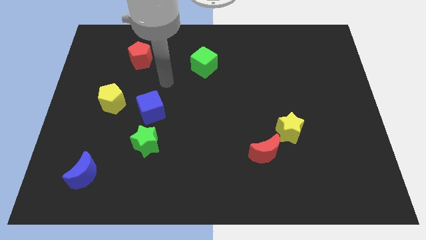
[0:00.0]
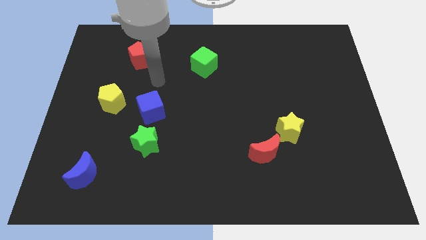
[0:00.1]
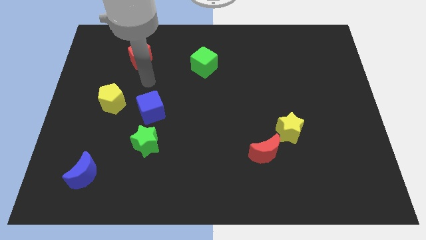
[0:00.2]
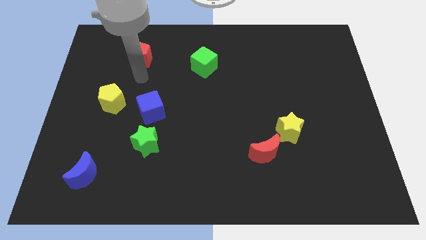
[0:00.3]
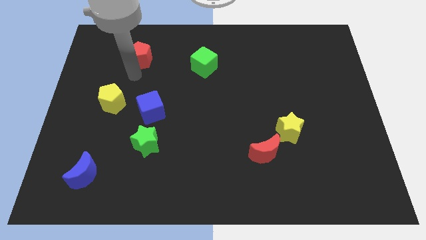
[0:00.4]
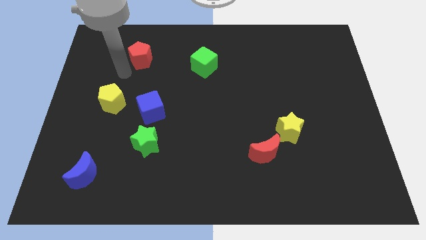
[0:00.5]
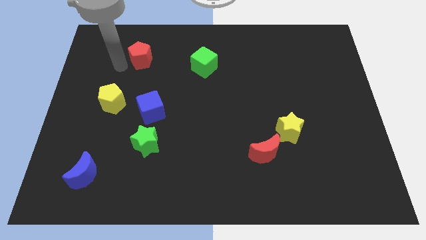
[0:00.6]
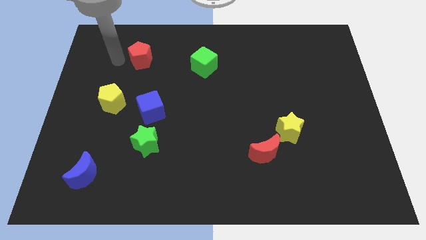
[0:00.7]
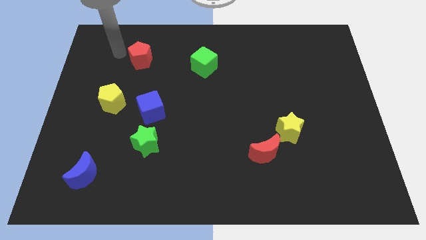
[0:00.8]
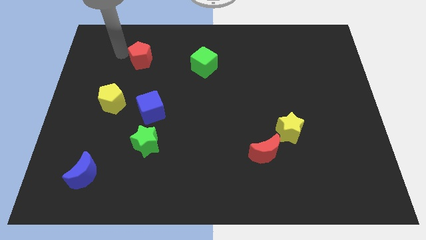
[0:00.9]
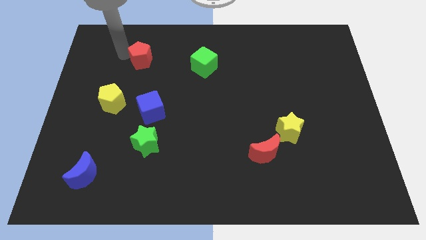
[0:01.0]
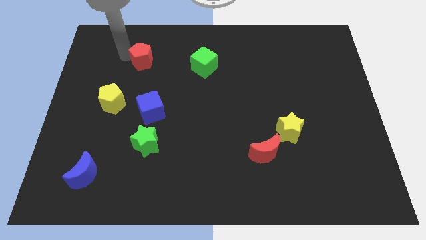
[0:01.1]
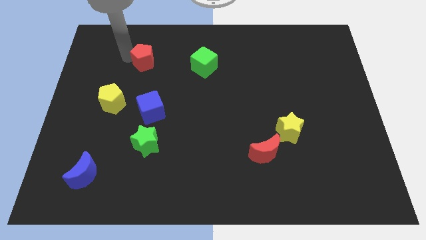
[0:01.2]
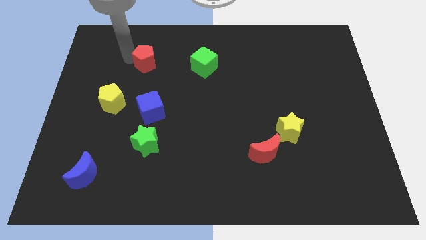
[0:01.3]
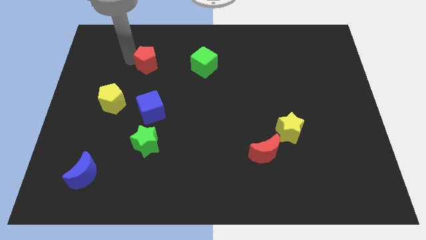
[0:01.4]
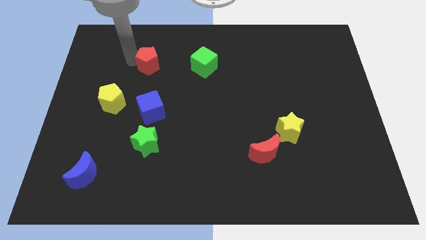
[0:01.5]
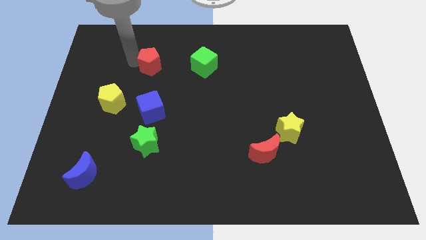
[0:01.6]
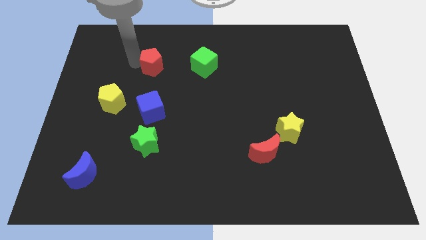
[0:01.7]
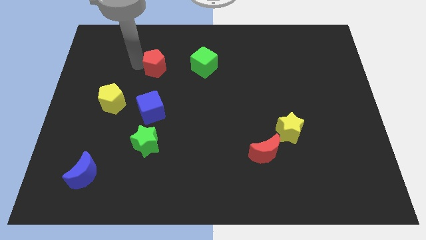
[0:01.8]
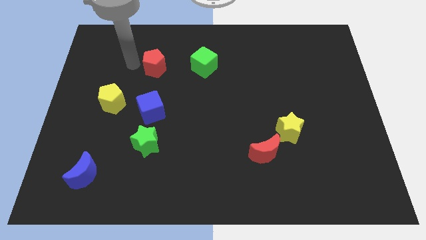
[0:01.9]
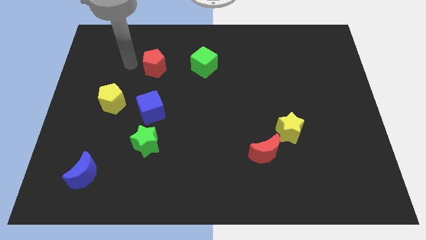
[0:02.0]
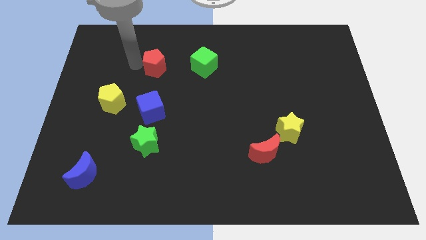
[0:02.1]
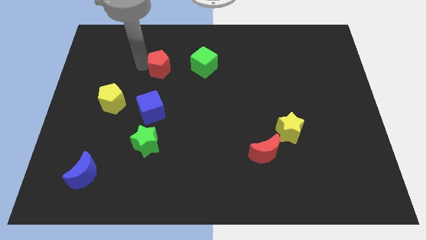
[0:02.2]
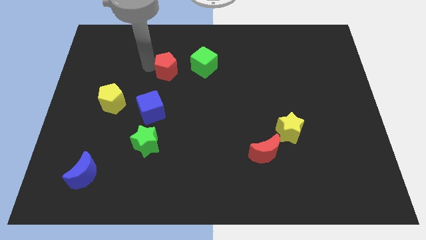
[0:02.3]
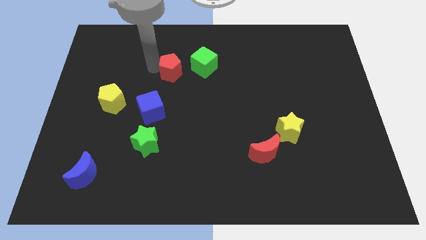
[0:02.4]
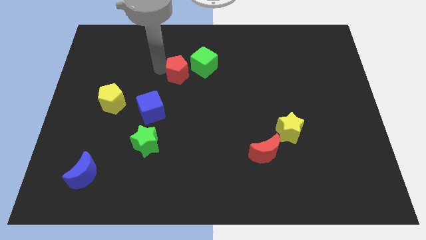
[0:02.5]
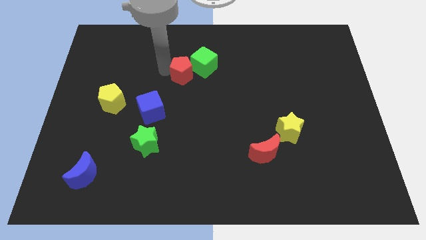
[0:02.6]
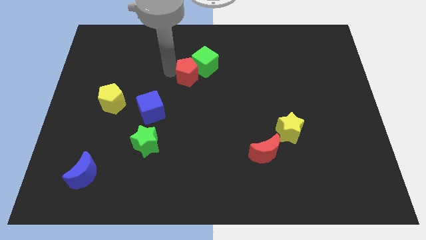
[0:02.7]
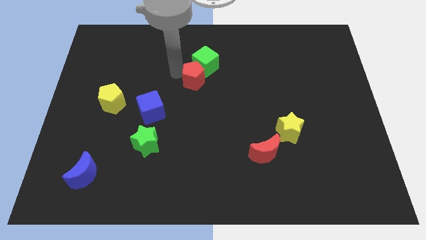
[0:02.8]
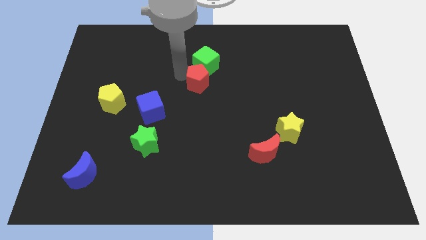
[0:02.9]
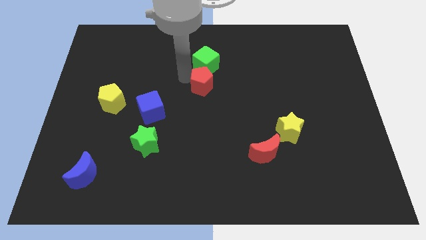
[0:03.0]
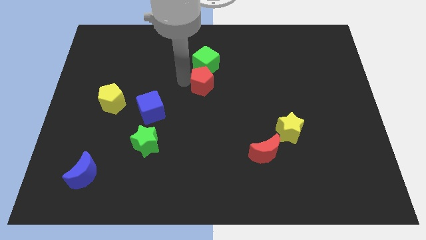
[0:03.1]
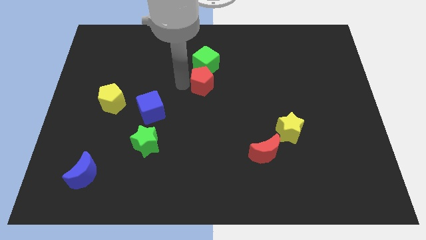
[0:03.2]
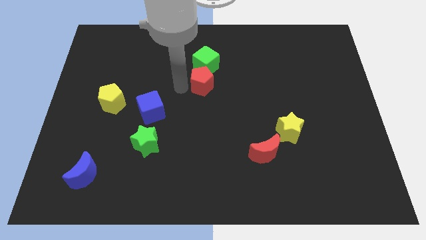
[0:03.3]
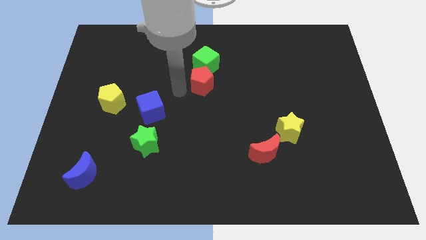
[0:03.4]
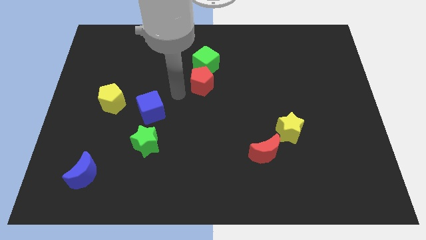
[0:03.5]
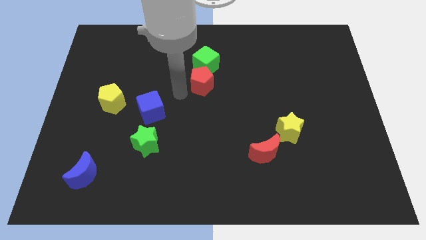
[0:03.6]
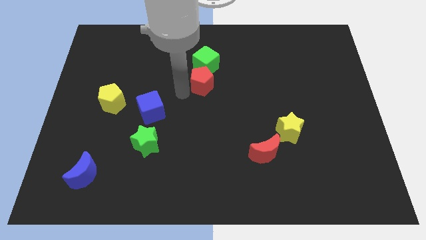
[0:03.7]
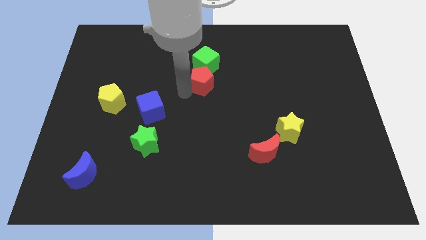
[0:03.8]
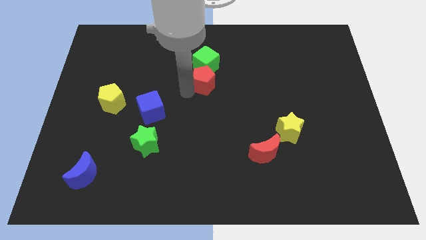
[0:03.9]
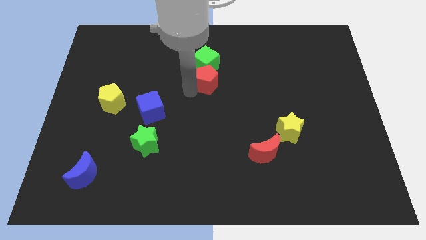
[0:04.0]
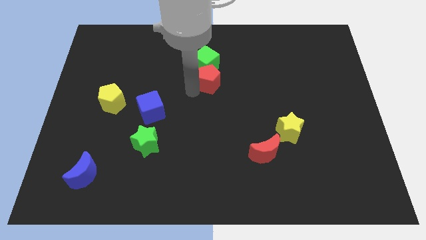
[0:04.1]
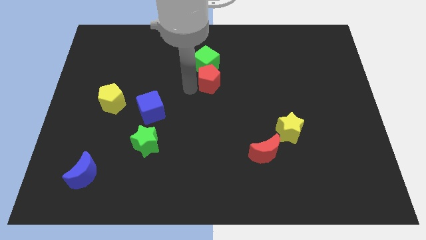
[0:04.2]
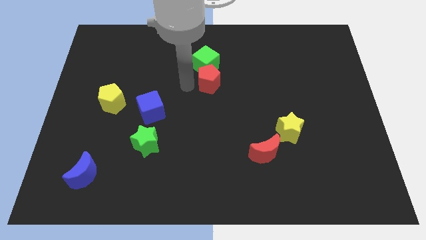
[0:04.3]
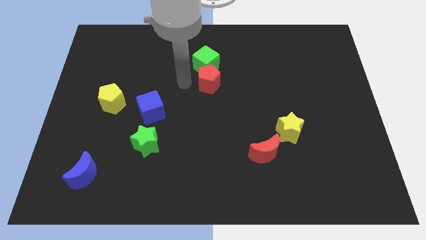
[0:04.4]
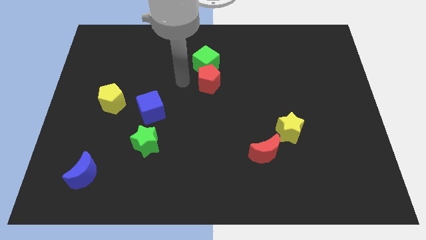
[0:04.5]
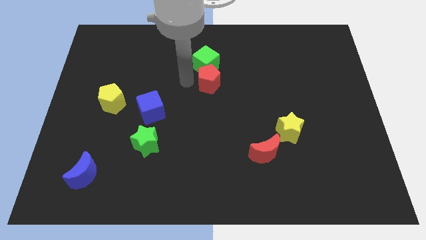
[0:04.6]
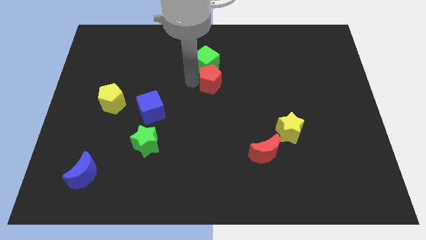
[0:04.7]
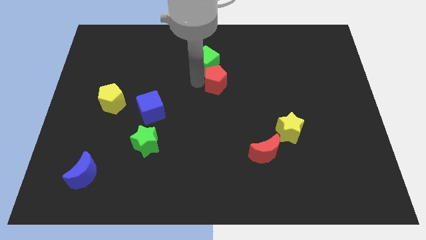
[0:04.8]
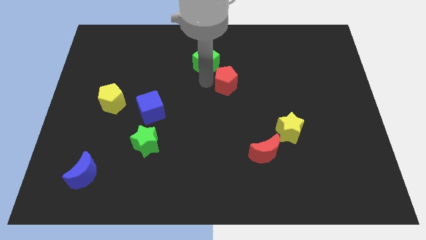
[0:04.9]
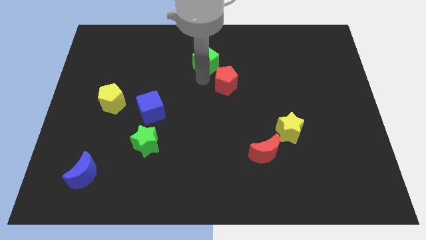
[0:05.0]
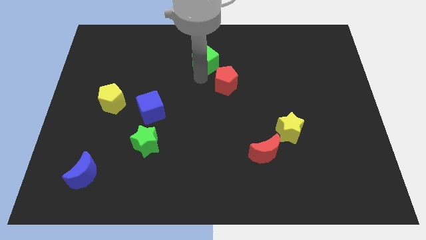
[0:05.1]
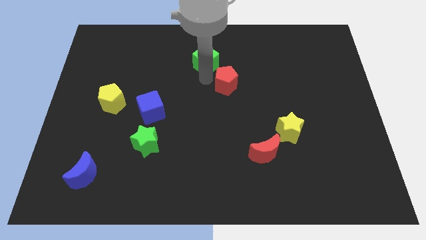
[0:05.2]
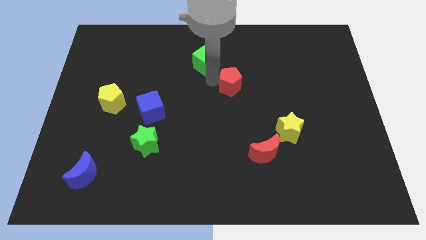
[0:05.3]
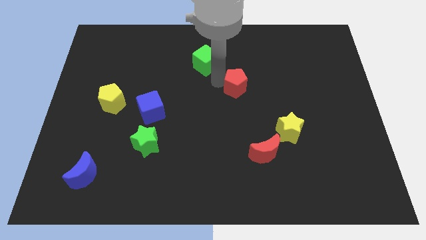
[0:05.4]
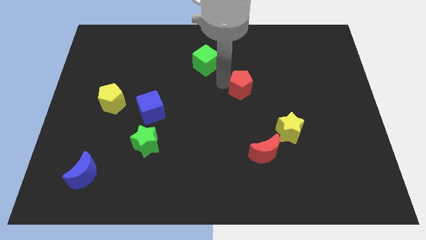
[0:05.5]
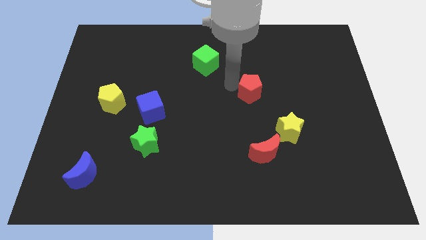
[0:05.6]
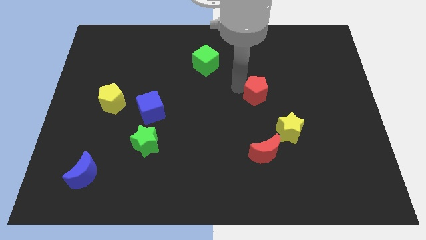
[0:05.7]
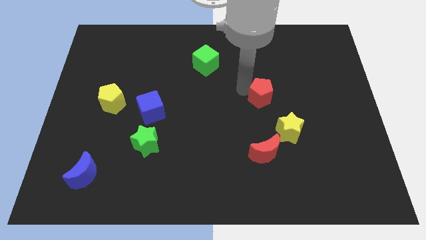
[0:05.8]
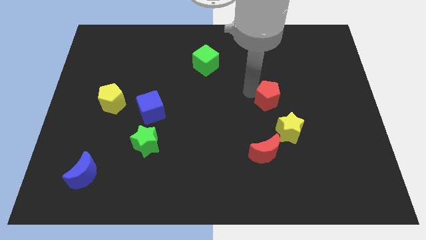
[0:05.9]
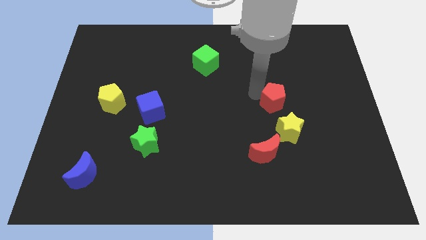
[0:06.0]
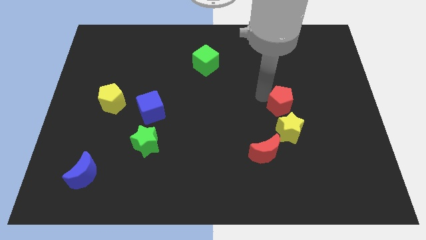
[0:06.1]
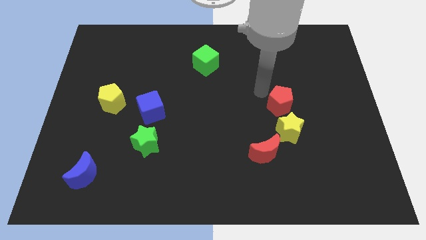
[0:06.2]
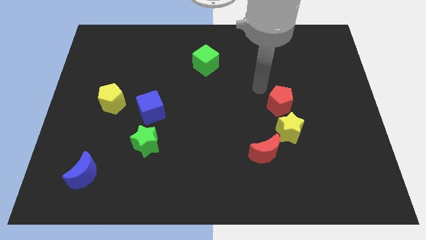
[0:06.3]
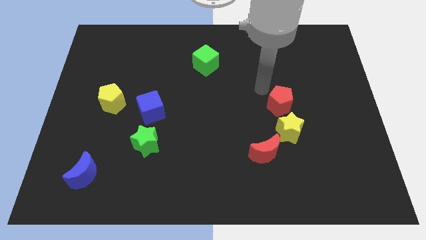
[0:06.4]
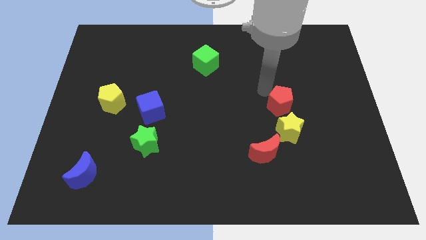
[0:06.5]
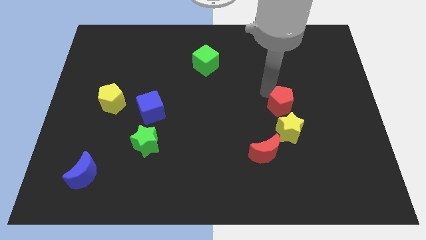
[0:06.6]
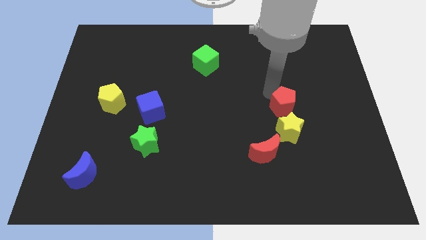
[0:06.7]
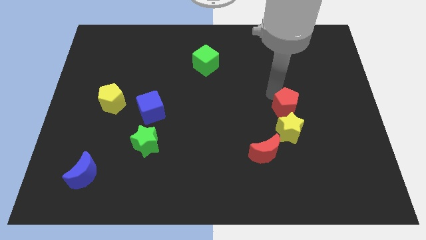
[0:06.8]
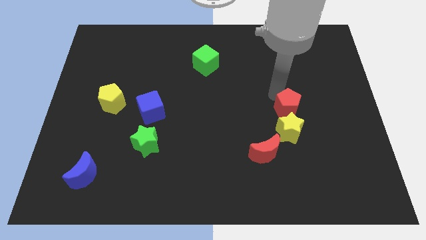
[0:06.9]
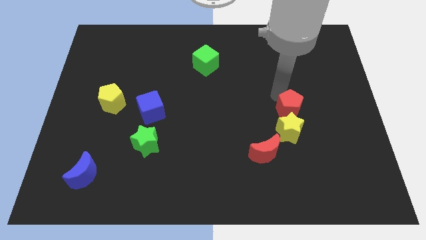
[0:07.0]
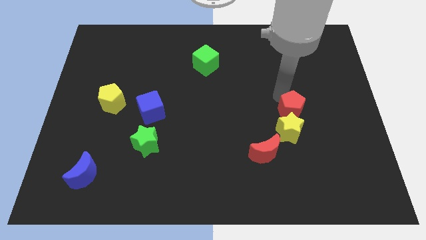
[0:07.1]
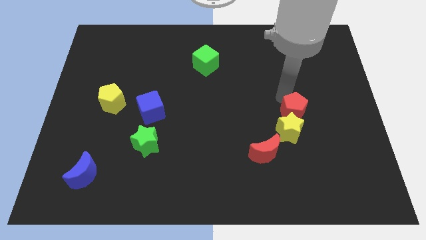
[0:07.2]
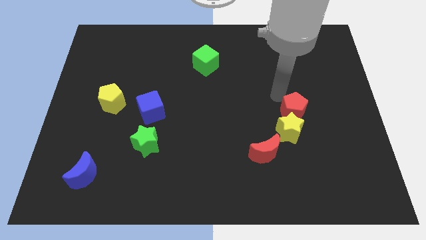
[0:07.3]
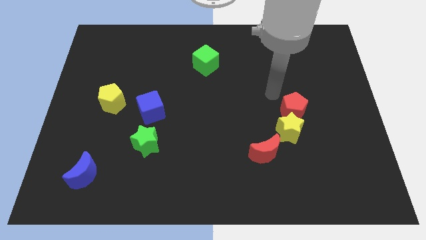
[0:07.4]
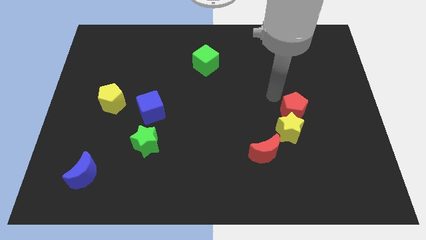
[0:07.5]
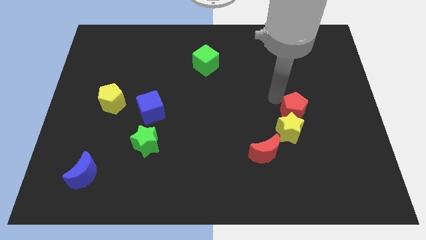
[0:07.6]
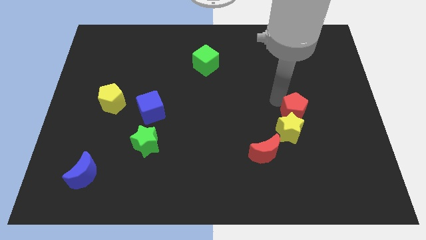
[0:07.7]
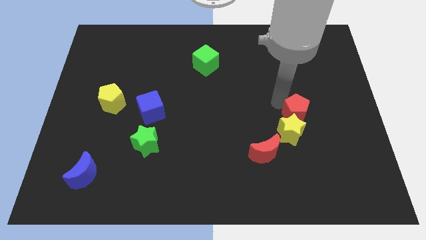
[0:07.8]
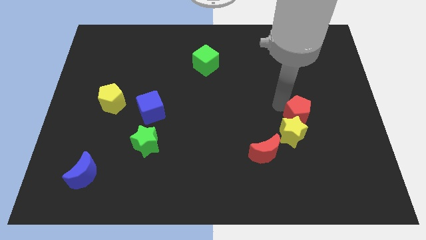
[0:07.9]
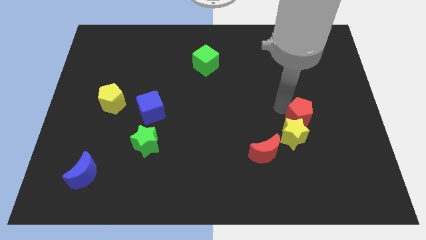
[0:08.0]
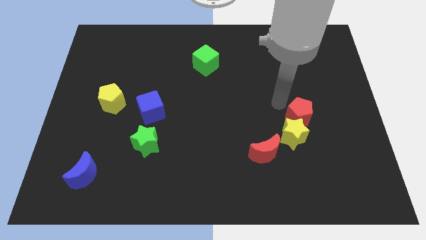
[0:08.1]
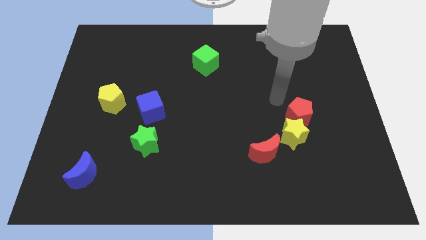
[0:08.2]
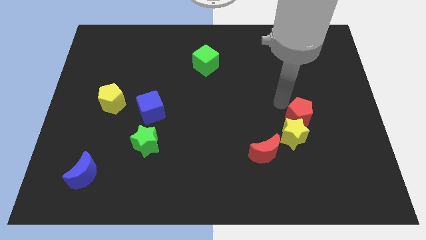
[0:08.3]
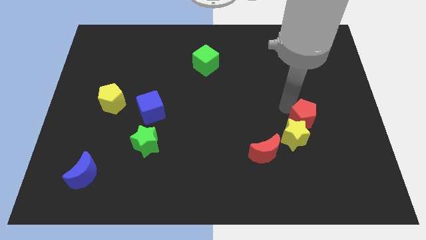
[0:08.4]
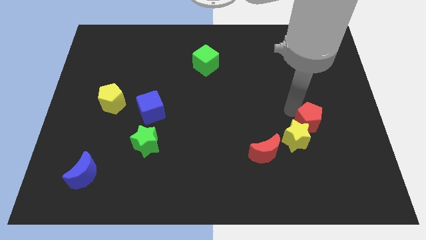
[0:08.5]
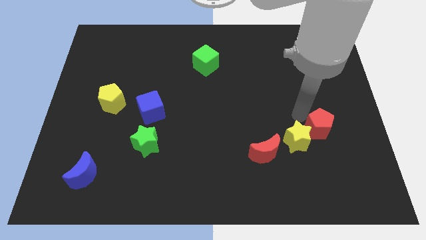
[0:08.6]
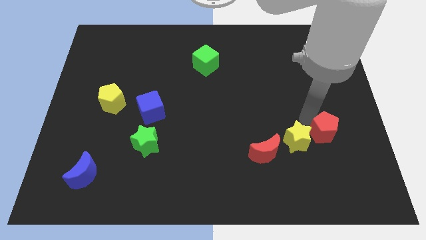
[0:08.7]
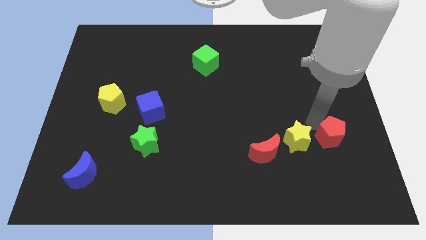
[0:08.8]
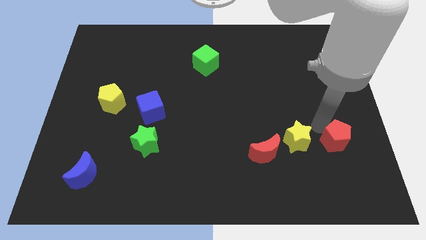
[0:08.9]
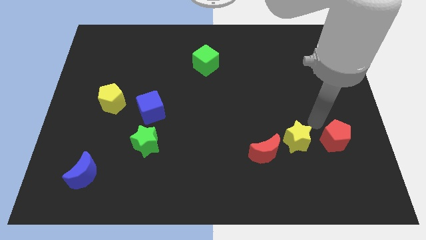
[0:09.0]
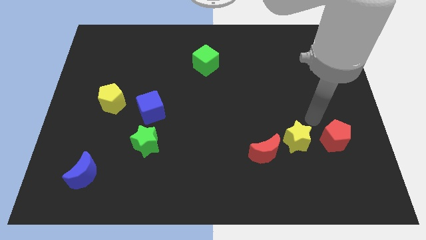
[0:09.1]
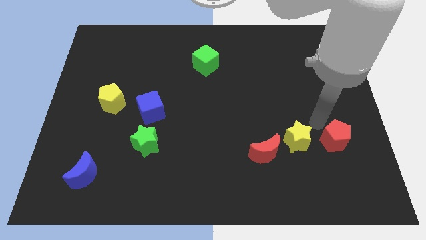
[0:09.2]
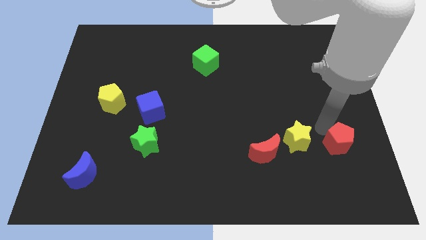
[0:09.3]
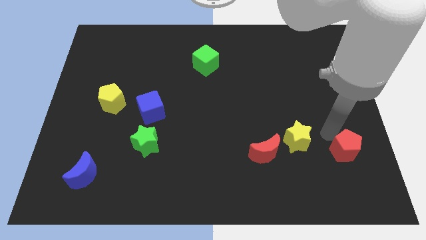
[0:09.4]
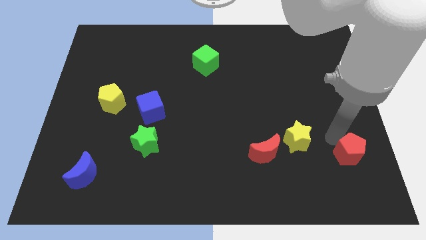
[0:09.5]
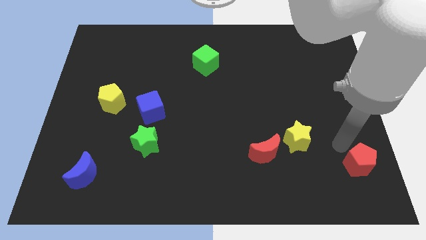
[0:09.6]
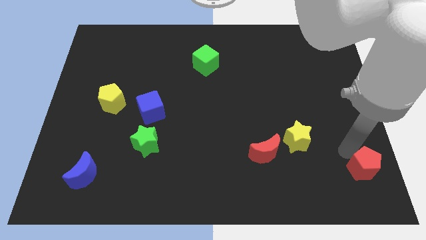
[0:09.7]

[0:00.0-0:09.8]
move the red pentagon to the bottom right corner
